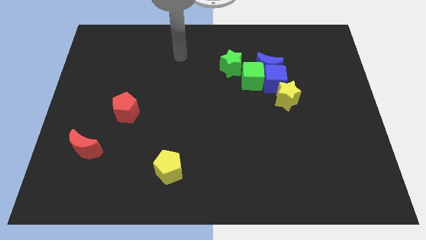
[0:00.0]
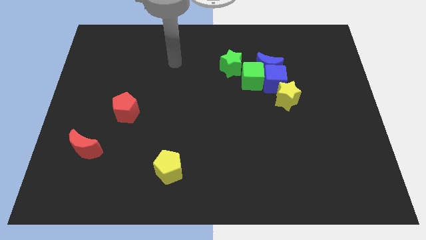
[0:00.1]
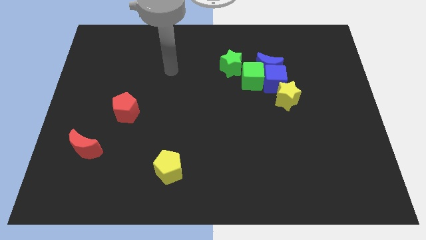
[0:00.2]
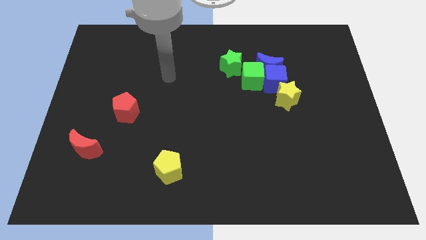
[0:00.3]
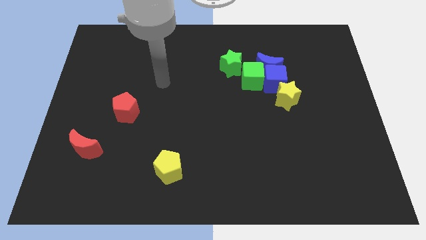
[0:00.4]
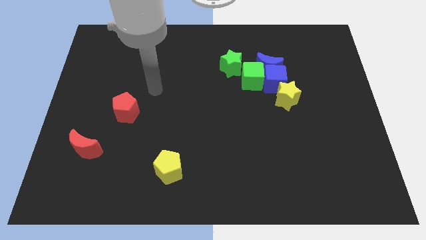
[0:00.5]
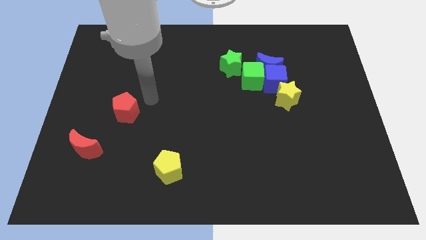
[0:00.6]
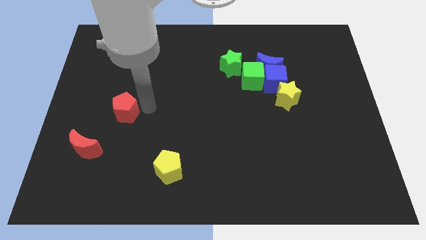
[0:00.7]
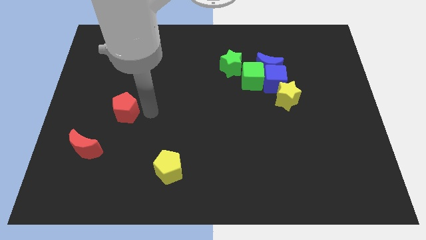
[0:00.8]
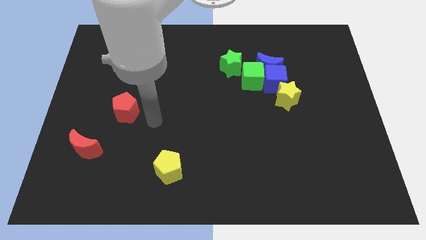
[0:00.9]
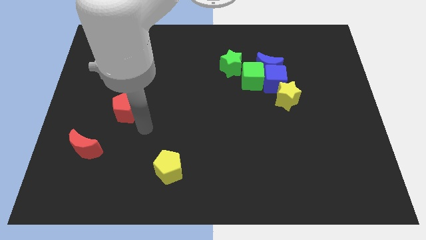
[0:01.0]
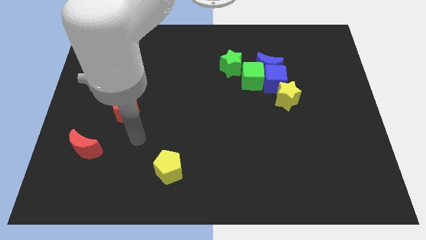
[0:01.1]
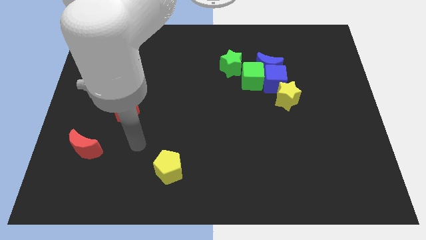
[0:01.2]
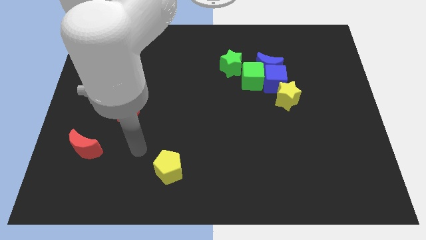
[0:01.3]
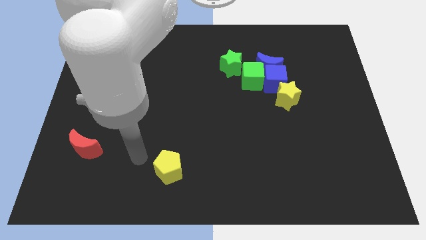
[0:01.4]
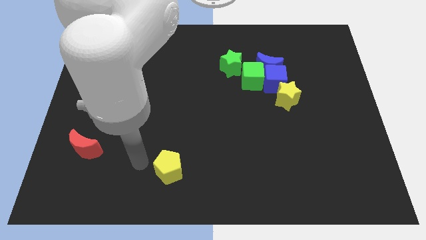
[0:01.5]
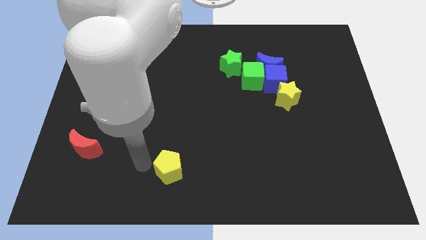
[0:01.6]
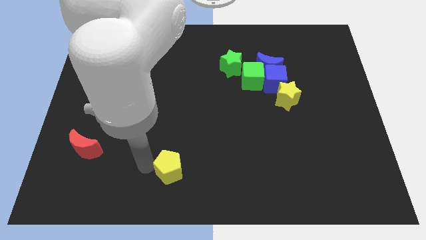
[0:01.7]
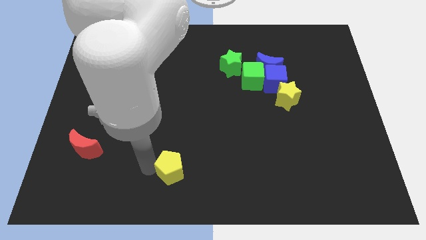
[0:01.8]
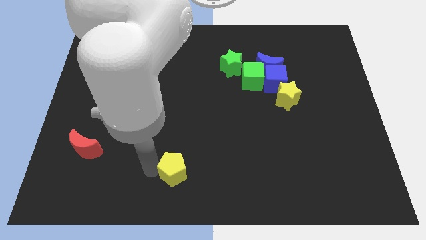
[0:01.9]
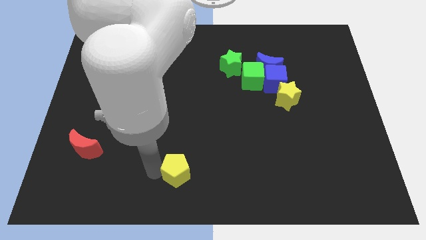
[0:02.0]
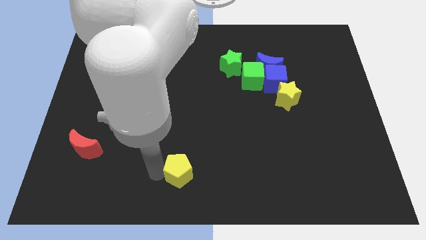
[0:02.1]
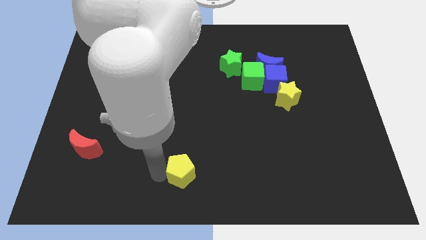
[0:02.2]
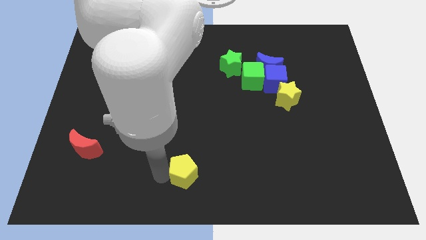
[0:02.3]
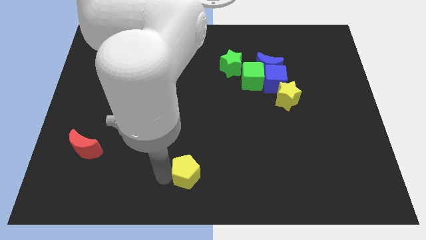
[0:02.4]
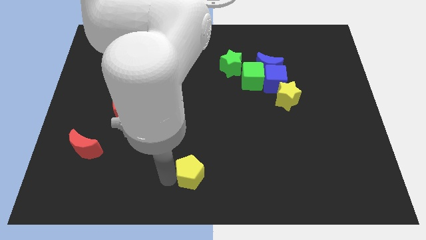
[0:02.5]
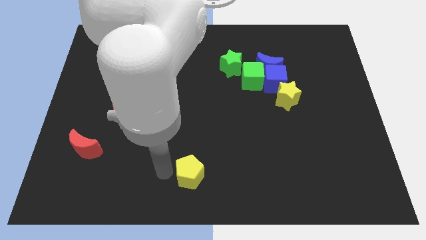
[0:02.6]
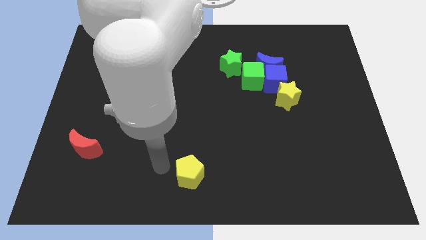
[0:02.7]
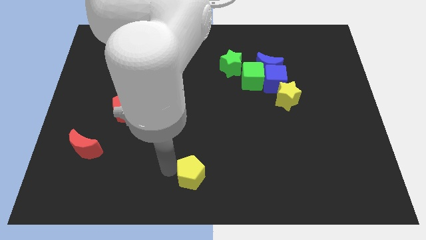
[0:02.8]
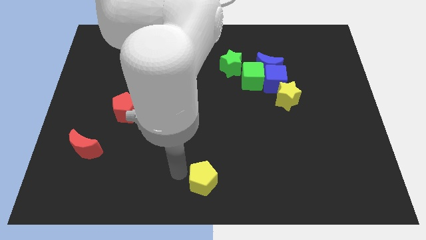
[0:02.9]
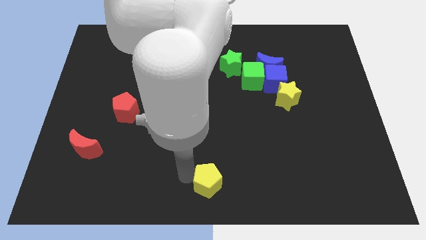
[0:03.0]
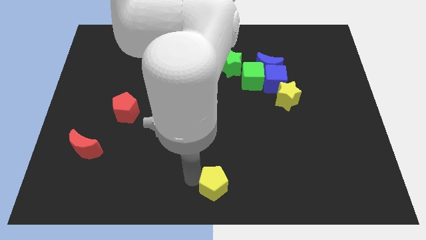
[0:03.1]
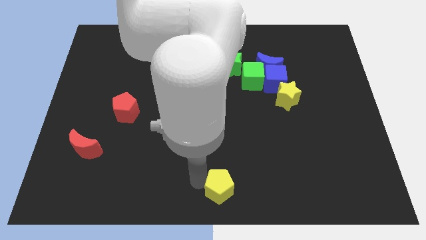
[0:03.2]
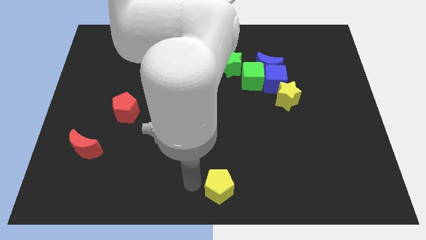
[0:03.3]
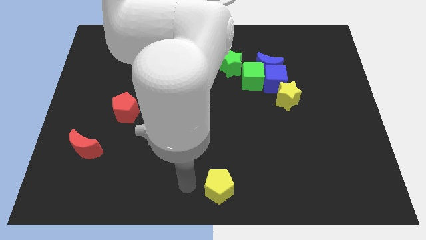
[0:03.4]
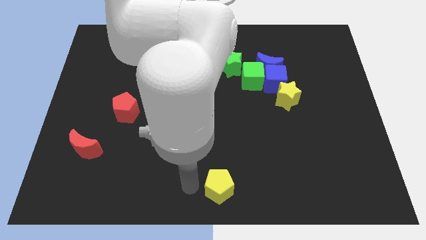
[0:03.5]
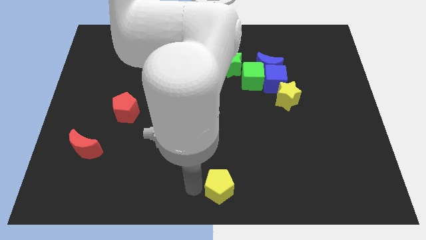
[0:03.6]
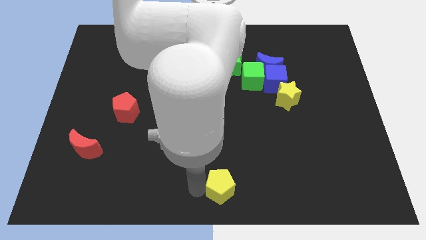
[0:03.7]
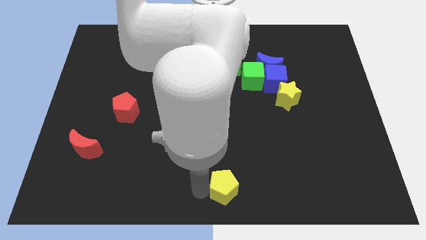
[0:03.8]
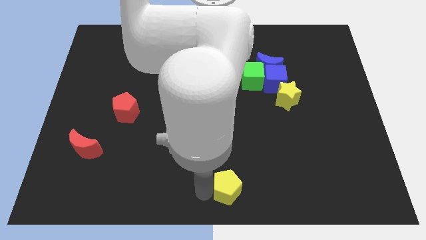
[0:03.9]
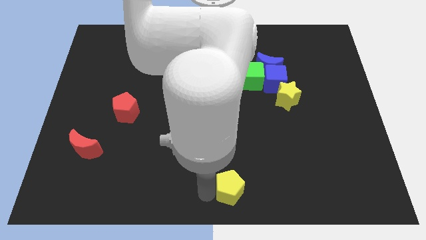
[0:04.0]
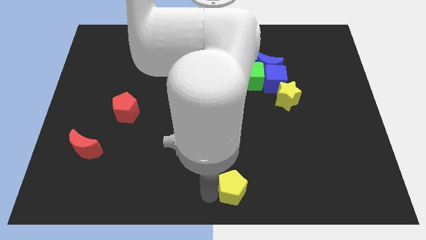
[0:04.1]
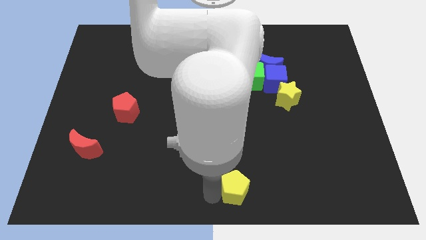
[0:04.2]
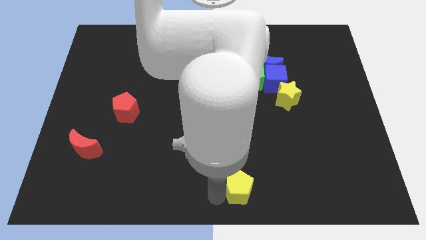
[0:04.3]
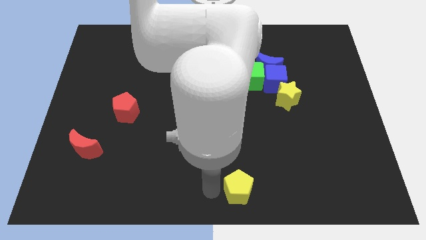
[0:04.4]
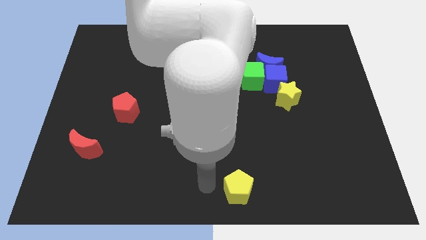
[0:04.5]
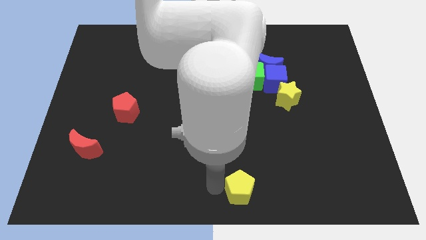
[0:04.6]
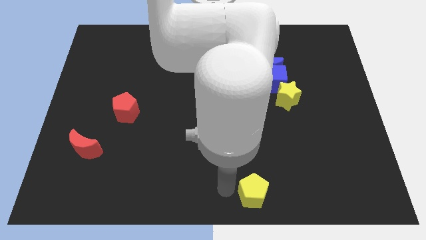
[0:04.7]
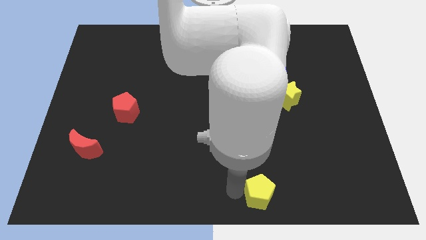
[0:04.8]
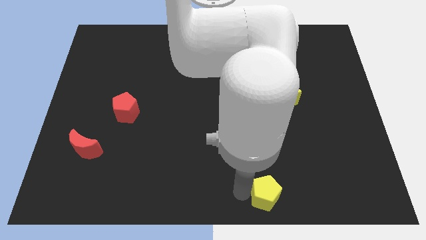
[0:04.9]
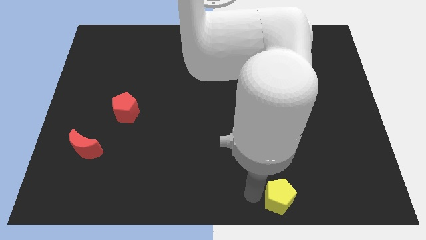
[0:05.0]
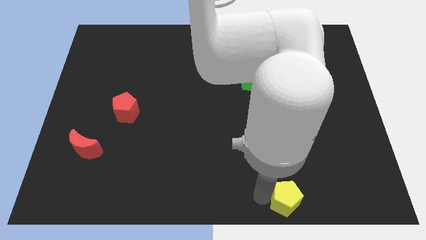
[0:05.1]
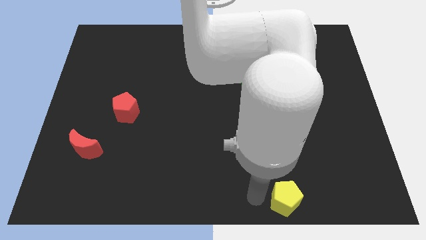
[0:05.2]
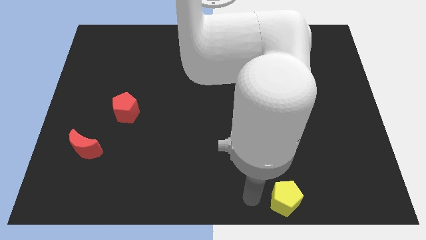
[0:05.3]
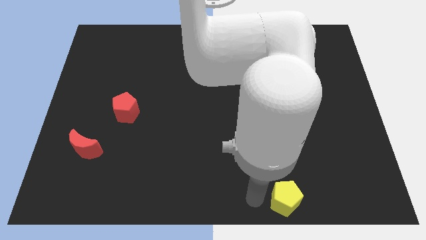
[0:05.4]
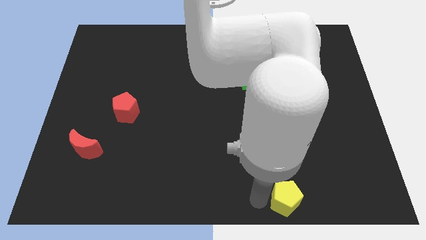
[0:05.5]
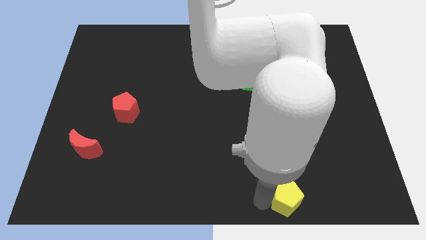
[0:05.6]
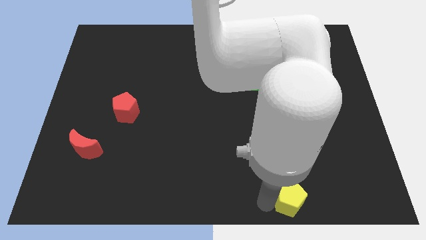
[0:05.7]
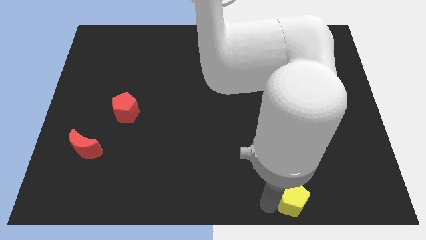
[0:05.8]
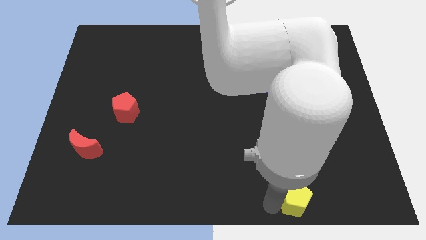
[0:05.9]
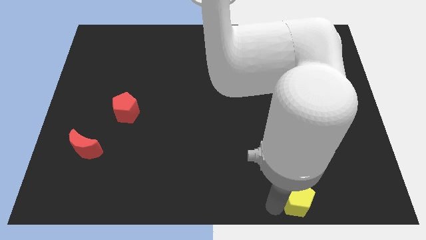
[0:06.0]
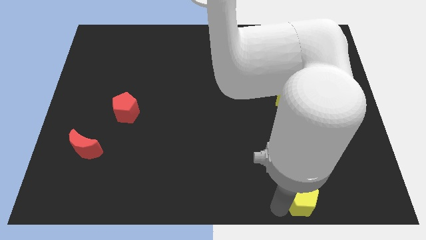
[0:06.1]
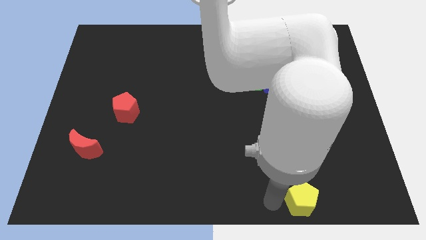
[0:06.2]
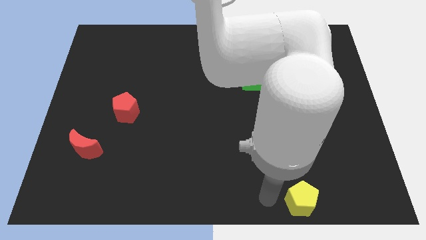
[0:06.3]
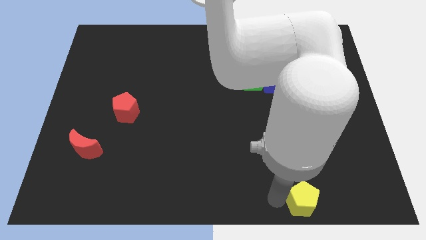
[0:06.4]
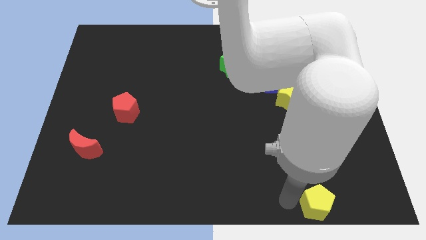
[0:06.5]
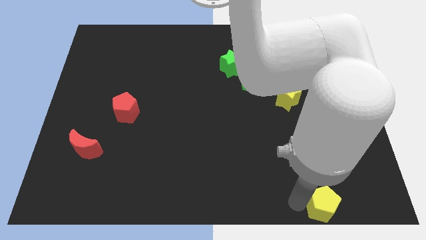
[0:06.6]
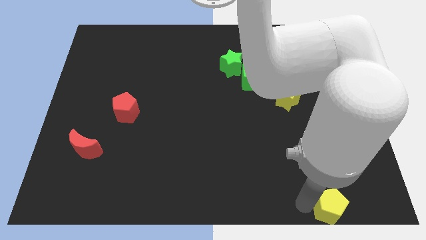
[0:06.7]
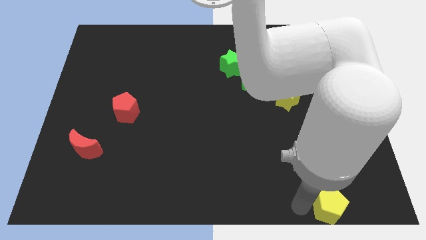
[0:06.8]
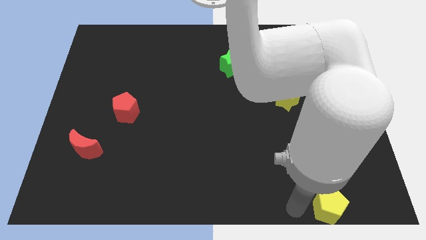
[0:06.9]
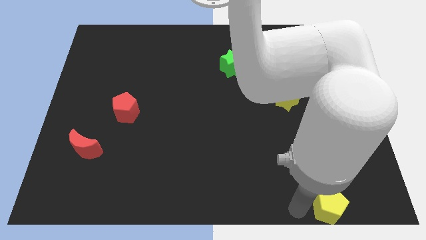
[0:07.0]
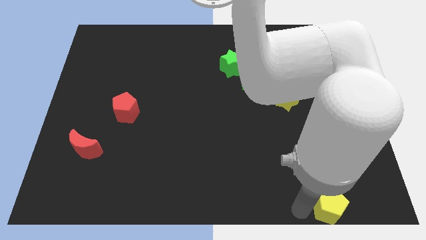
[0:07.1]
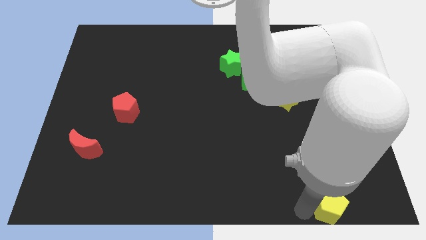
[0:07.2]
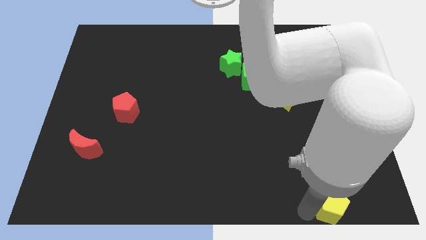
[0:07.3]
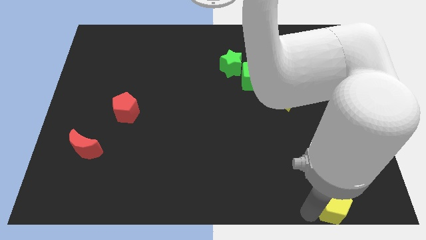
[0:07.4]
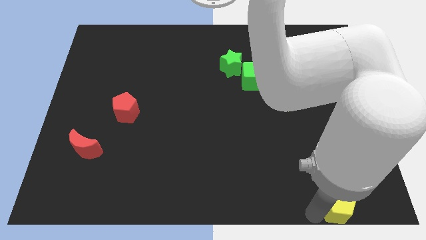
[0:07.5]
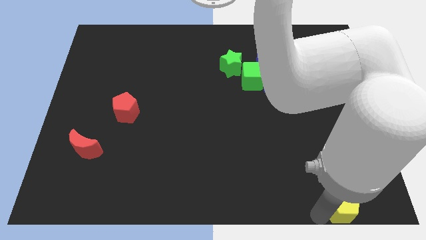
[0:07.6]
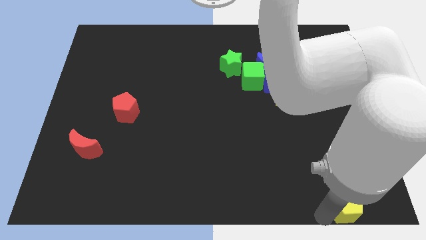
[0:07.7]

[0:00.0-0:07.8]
put the yellow pentagon to the lower right corner
